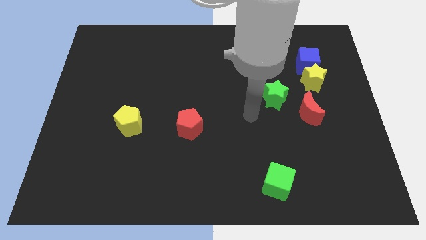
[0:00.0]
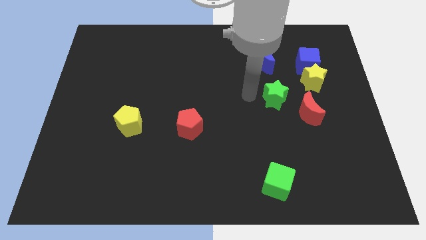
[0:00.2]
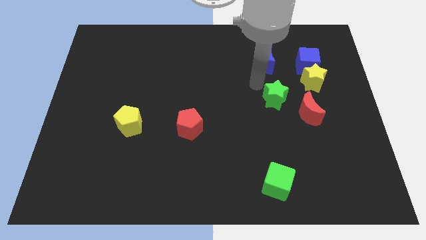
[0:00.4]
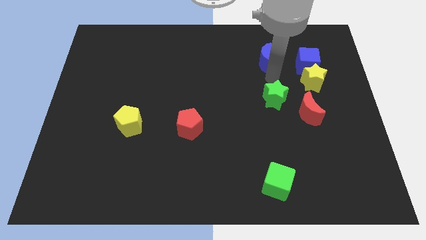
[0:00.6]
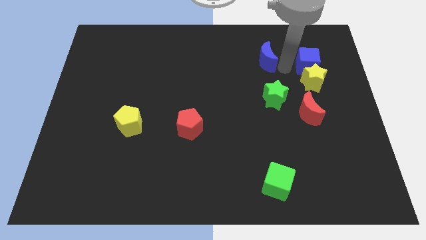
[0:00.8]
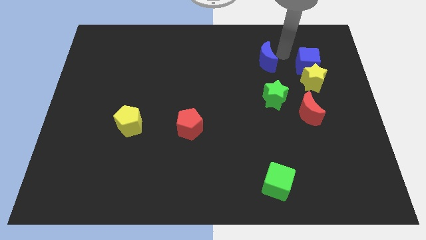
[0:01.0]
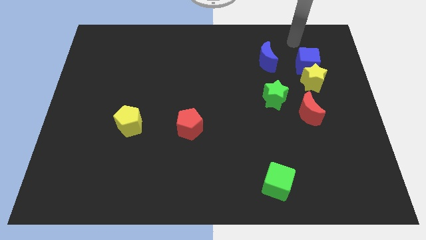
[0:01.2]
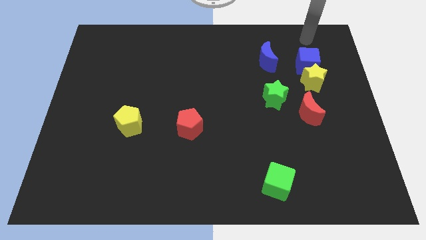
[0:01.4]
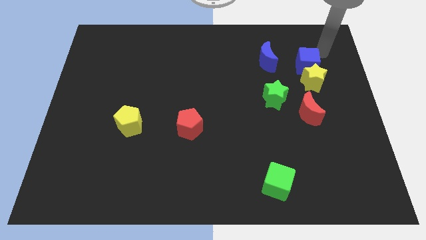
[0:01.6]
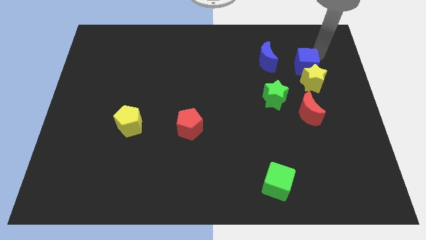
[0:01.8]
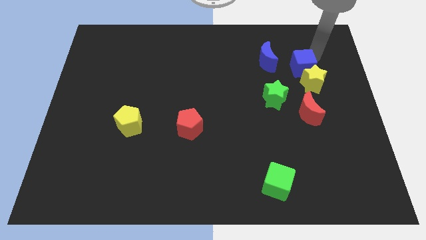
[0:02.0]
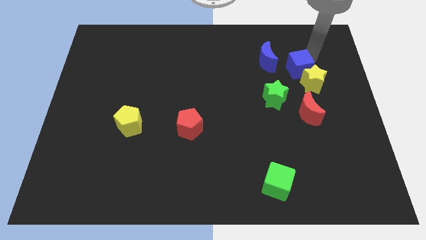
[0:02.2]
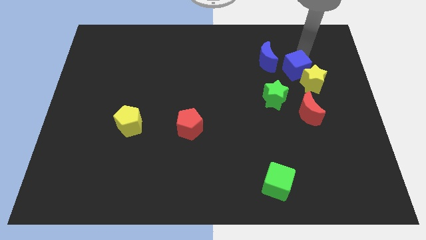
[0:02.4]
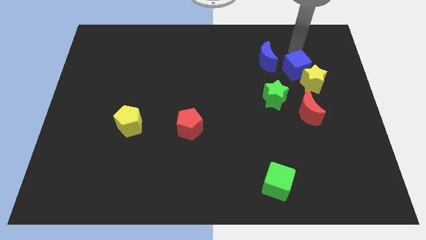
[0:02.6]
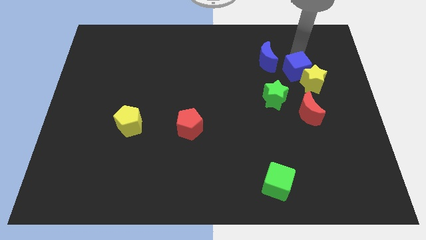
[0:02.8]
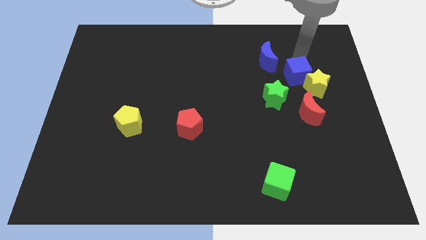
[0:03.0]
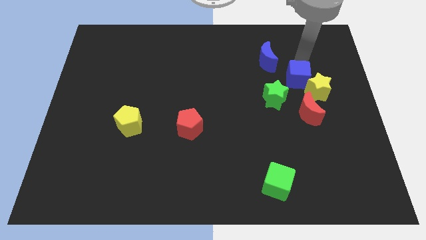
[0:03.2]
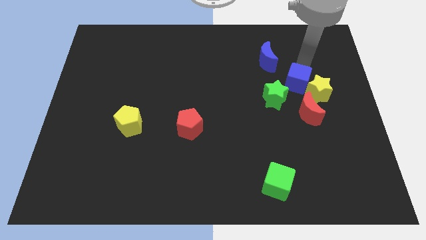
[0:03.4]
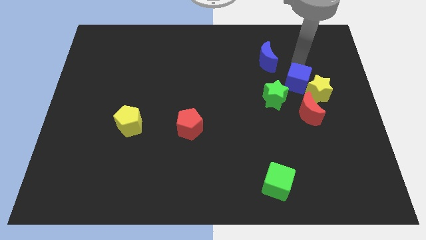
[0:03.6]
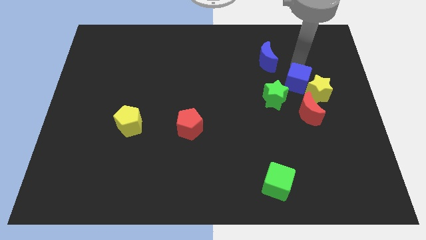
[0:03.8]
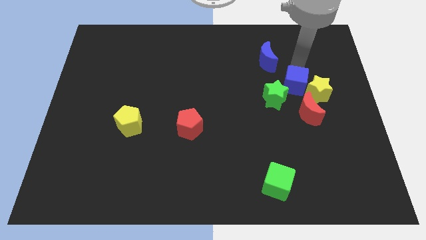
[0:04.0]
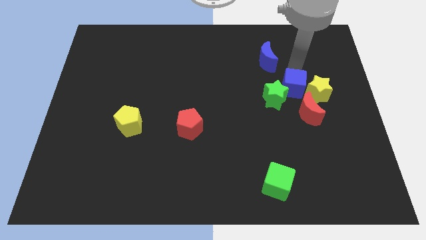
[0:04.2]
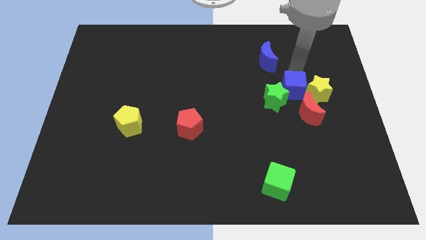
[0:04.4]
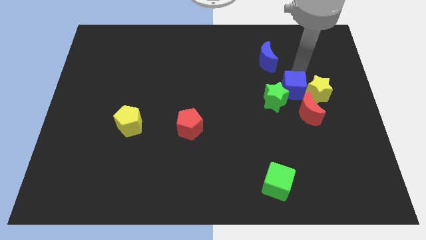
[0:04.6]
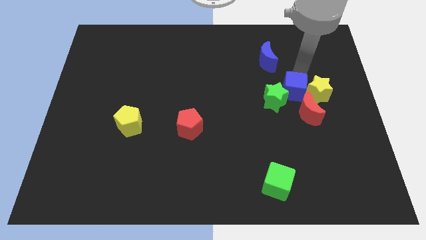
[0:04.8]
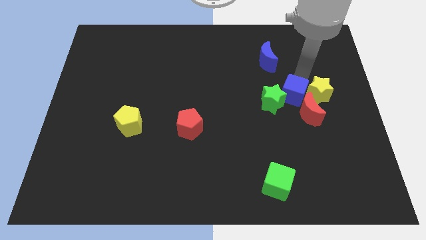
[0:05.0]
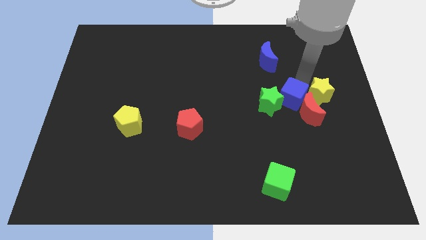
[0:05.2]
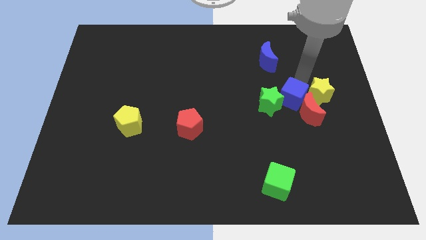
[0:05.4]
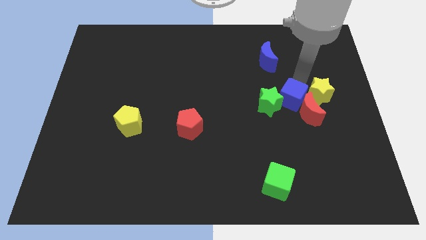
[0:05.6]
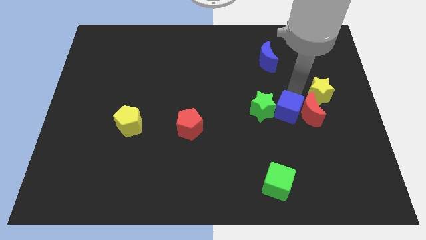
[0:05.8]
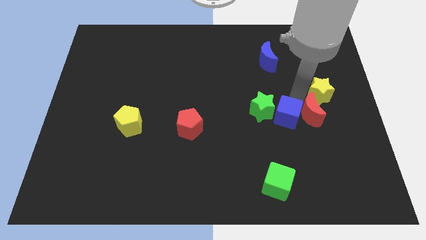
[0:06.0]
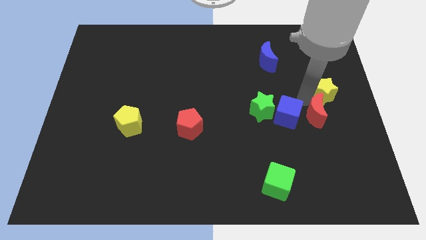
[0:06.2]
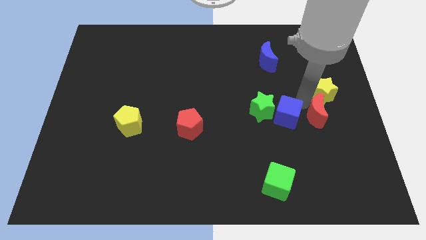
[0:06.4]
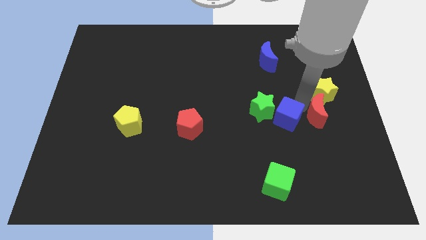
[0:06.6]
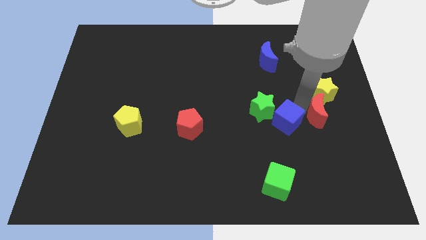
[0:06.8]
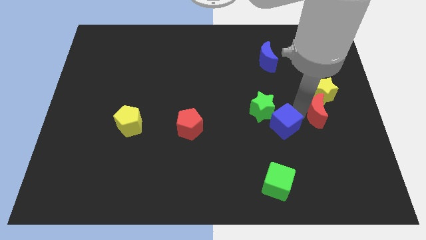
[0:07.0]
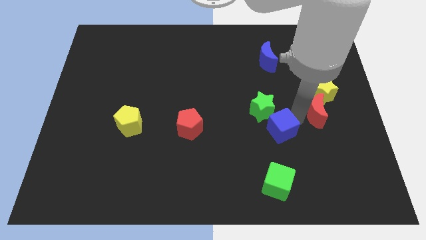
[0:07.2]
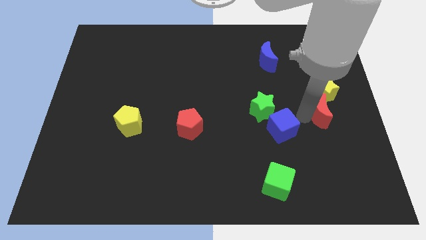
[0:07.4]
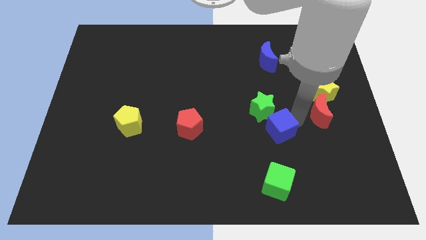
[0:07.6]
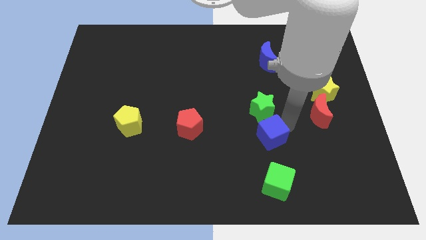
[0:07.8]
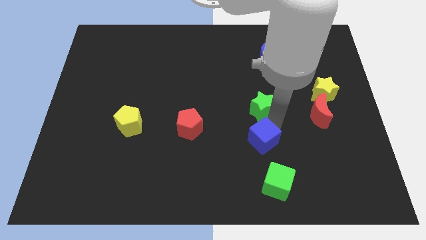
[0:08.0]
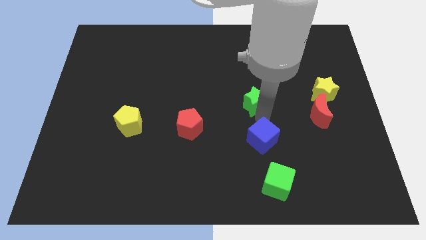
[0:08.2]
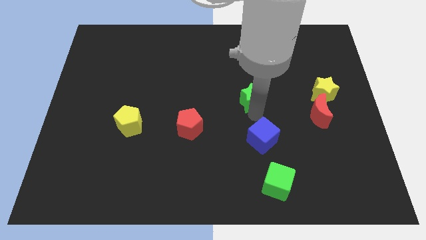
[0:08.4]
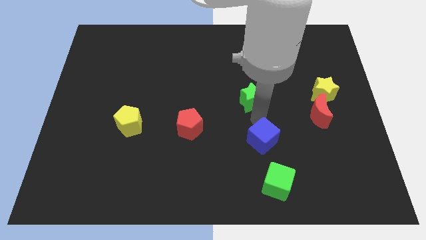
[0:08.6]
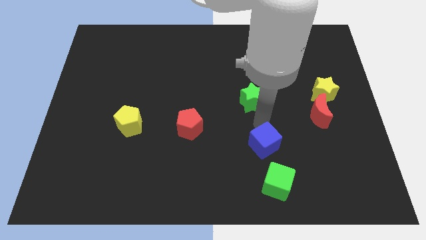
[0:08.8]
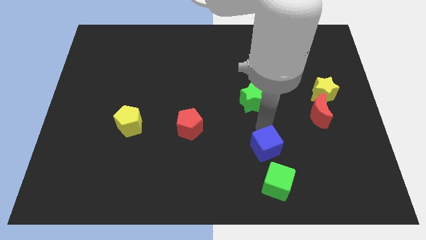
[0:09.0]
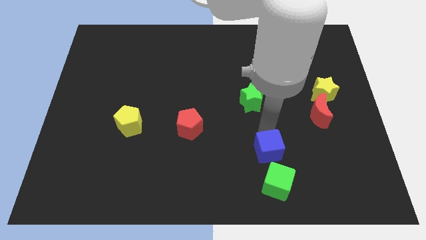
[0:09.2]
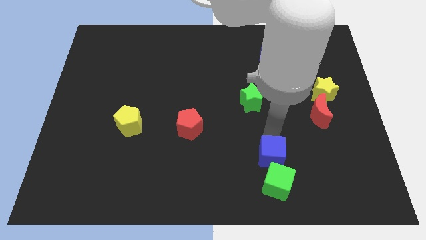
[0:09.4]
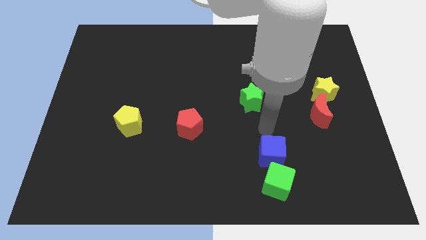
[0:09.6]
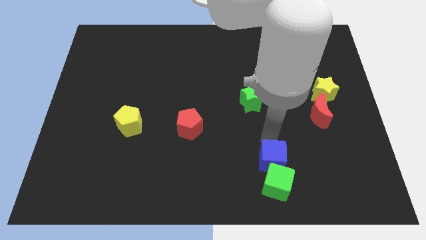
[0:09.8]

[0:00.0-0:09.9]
put the blue cube next to the green cube

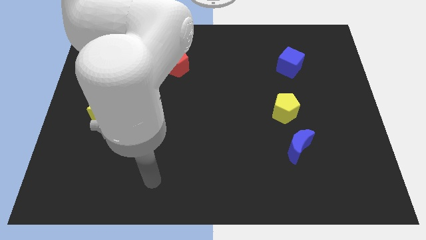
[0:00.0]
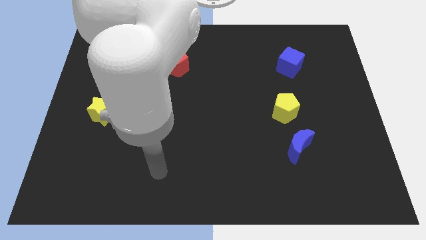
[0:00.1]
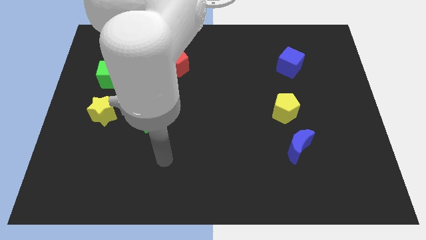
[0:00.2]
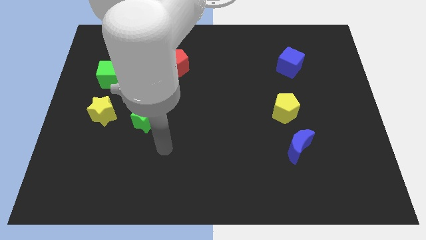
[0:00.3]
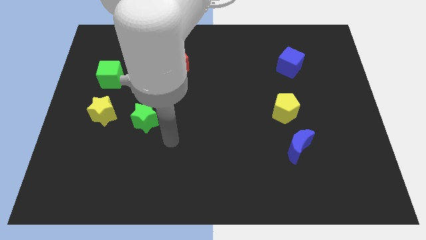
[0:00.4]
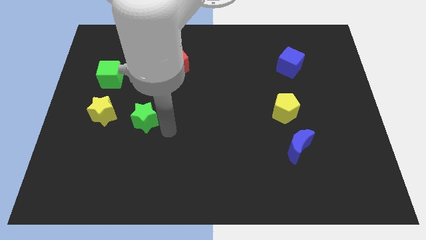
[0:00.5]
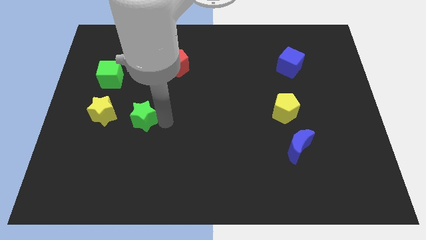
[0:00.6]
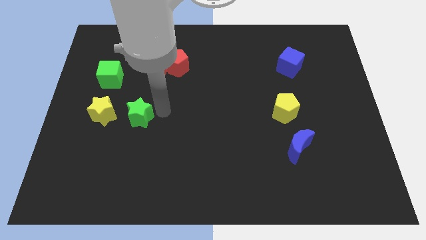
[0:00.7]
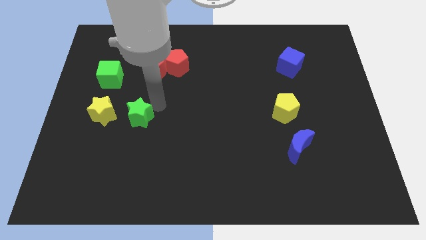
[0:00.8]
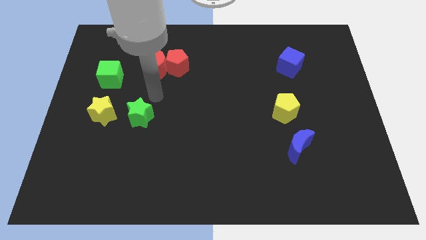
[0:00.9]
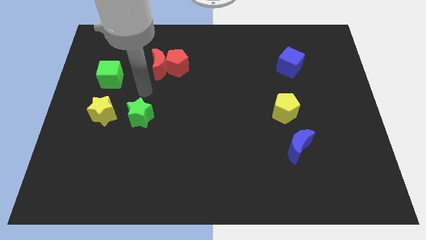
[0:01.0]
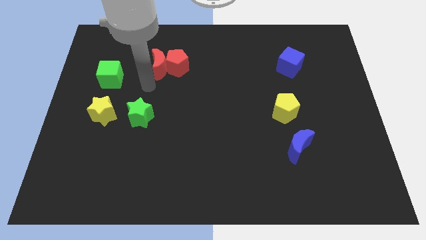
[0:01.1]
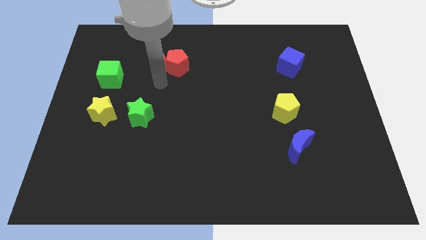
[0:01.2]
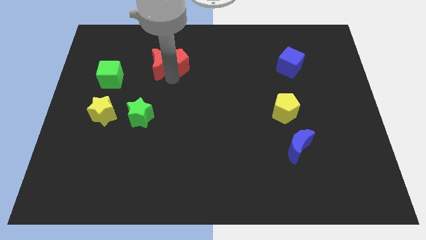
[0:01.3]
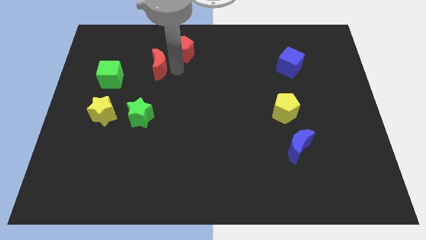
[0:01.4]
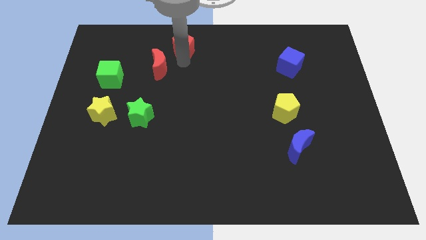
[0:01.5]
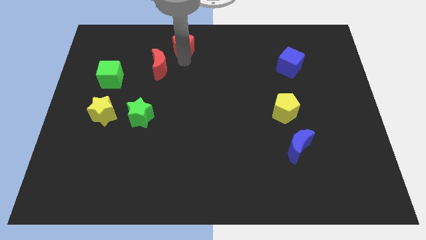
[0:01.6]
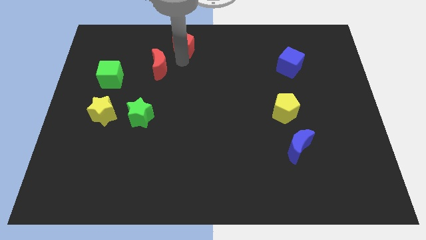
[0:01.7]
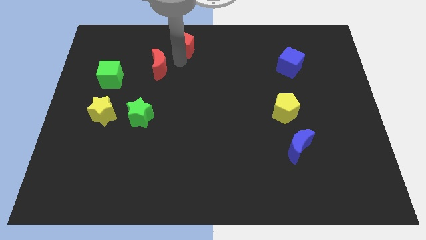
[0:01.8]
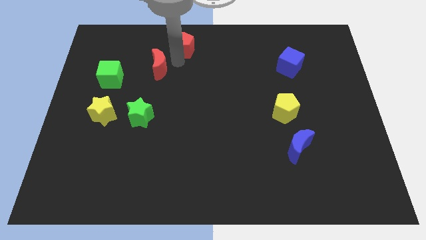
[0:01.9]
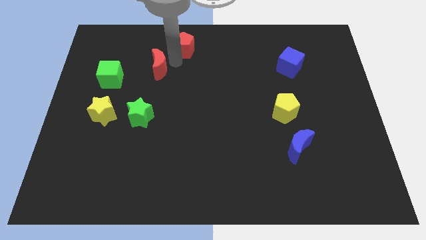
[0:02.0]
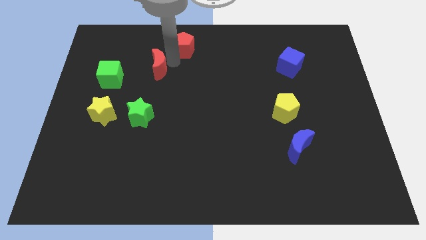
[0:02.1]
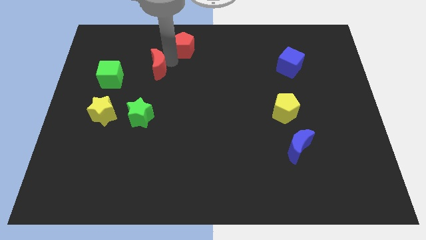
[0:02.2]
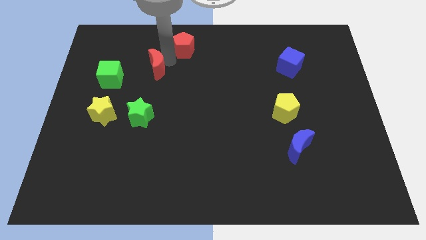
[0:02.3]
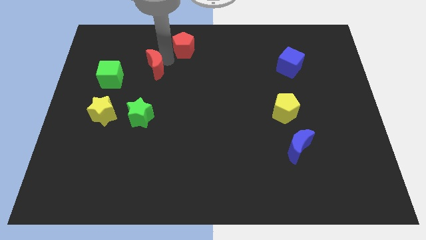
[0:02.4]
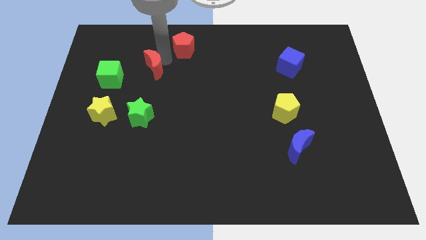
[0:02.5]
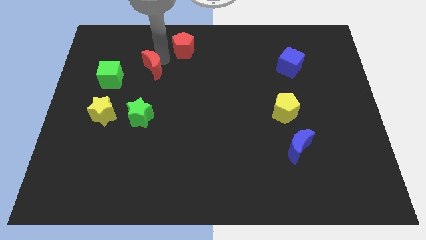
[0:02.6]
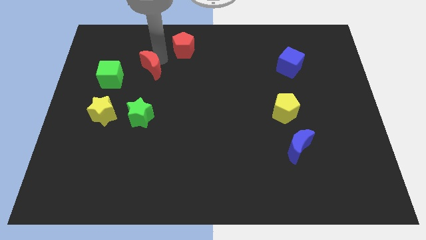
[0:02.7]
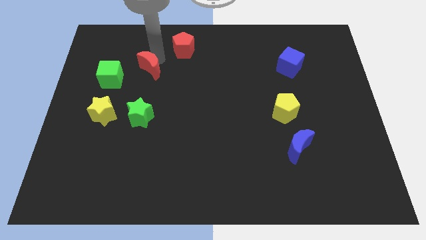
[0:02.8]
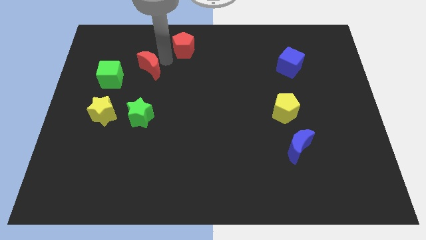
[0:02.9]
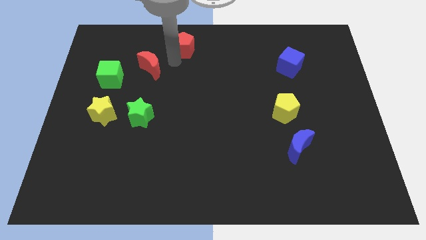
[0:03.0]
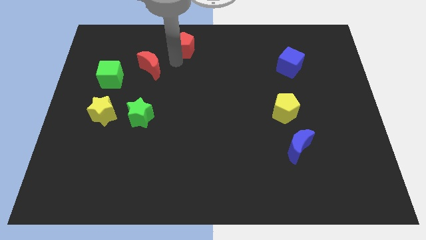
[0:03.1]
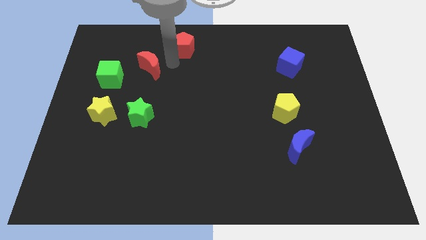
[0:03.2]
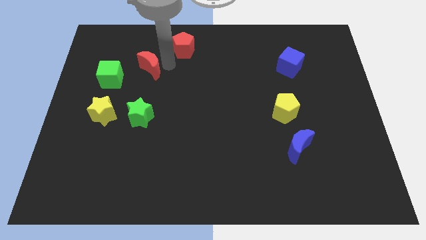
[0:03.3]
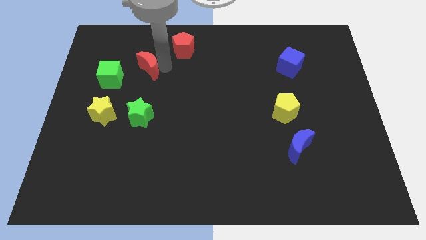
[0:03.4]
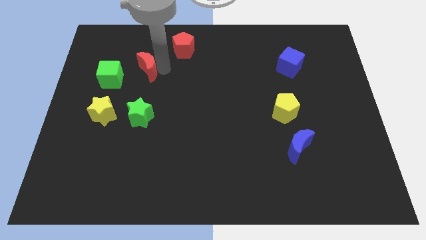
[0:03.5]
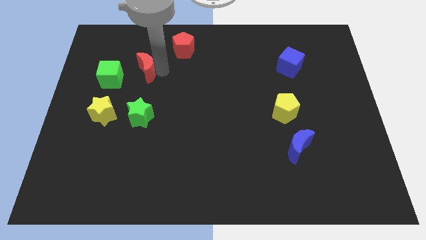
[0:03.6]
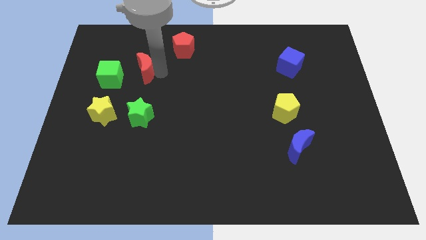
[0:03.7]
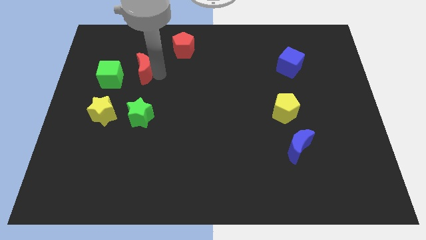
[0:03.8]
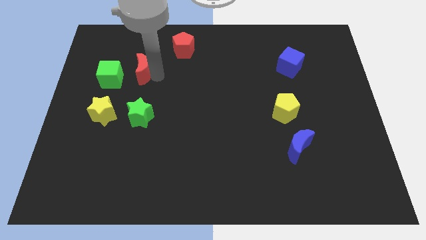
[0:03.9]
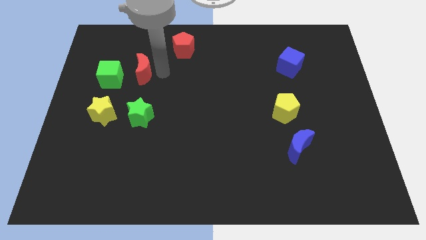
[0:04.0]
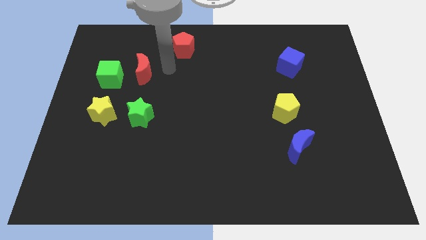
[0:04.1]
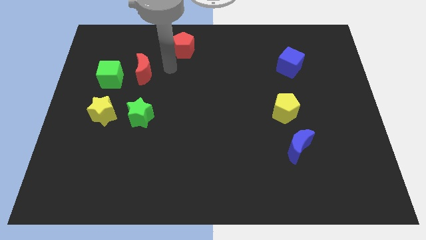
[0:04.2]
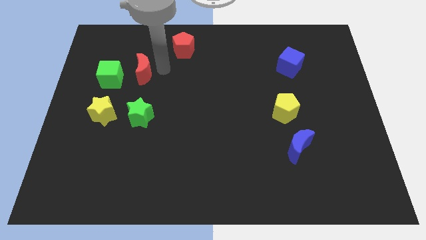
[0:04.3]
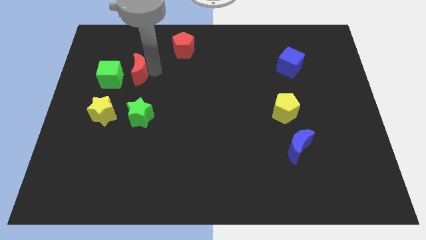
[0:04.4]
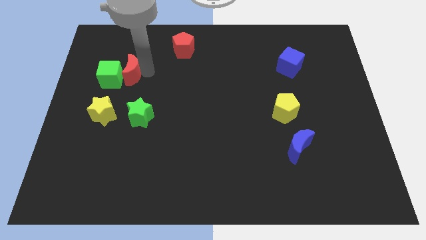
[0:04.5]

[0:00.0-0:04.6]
put the red moon close to the green cube
